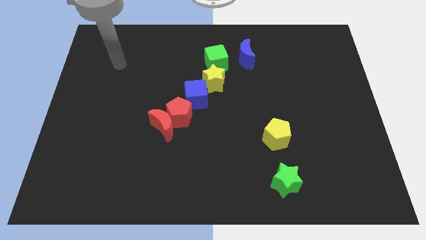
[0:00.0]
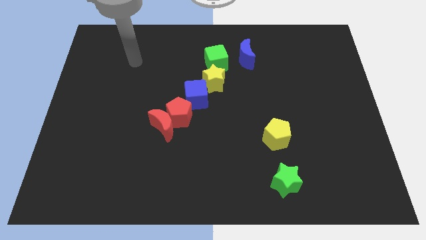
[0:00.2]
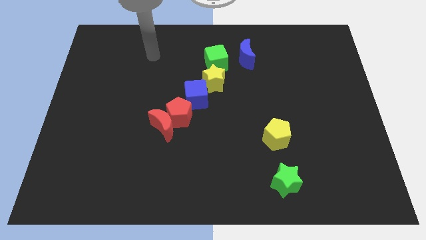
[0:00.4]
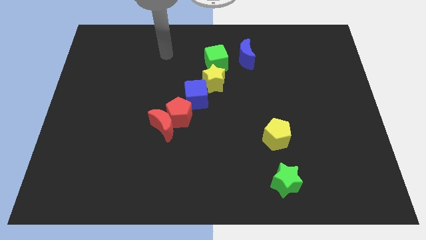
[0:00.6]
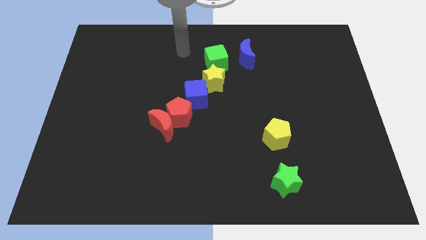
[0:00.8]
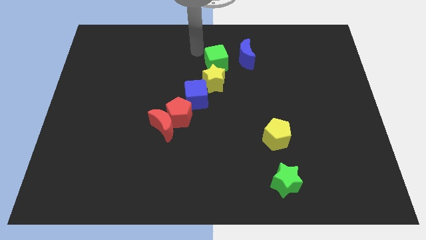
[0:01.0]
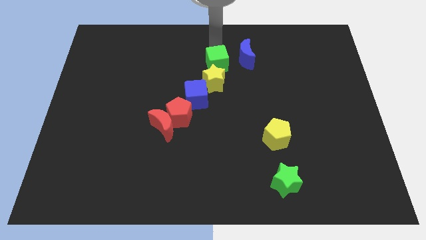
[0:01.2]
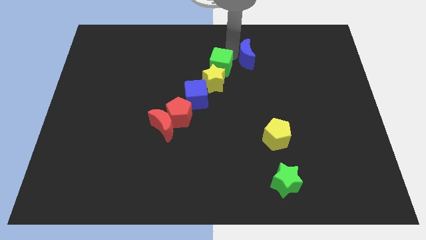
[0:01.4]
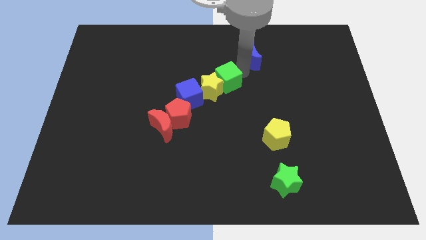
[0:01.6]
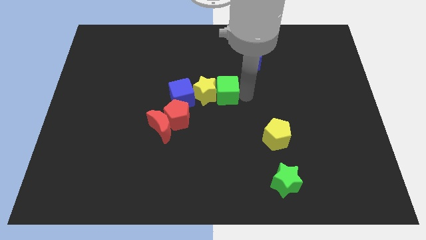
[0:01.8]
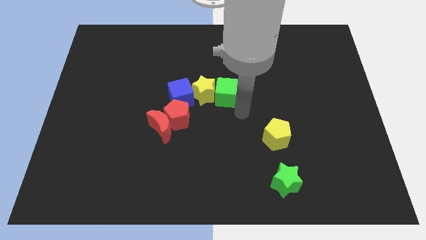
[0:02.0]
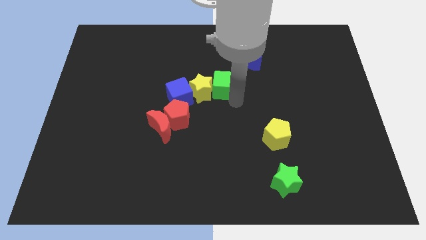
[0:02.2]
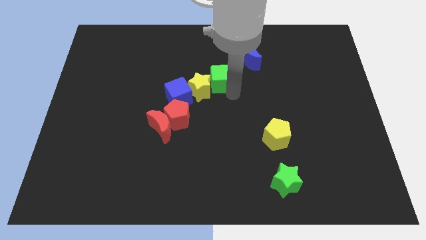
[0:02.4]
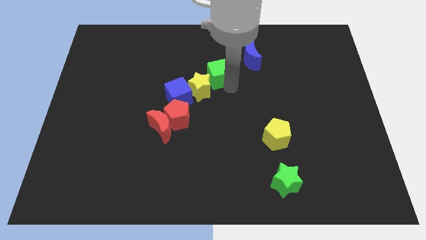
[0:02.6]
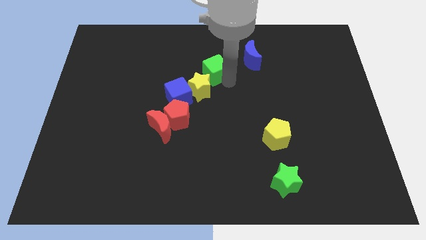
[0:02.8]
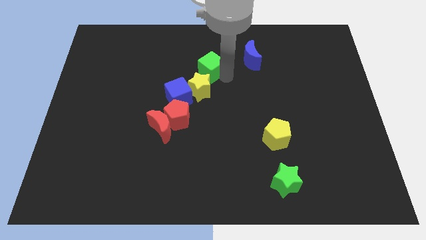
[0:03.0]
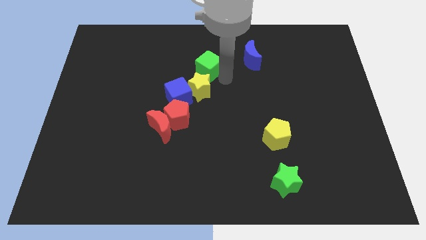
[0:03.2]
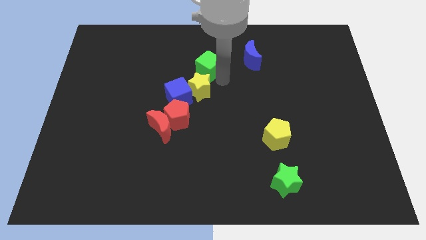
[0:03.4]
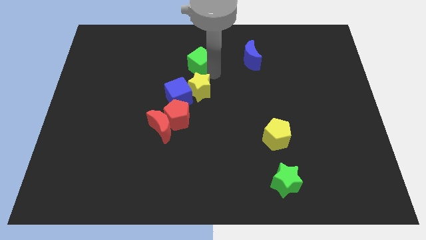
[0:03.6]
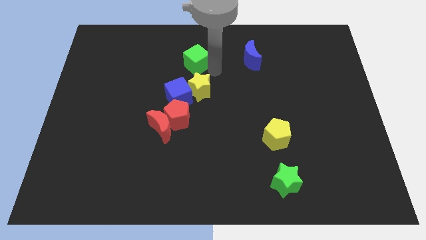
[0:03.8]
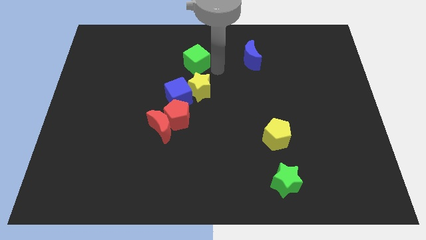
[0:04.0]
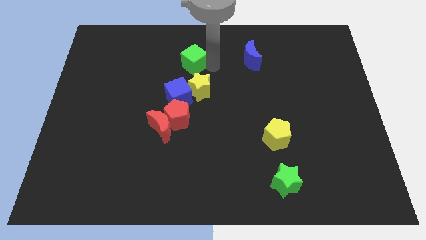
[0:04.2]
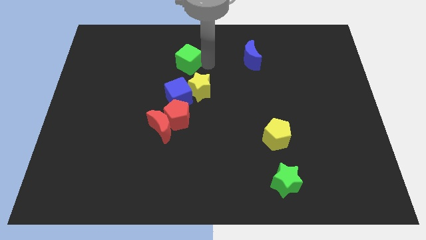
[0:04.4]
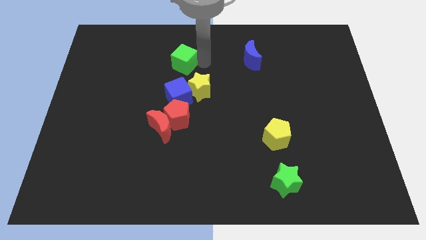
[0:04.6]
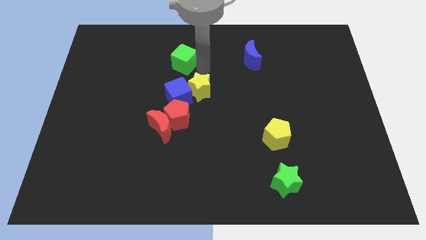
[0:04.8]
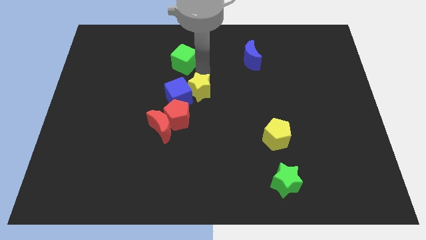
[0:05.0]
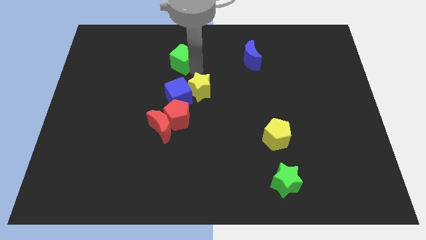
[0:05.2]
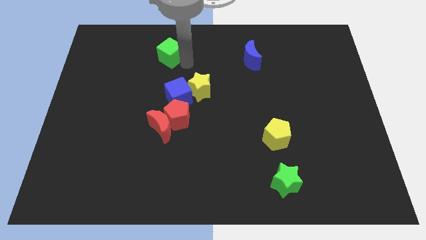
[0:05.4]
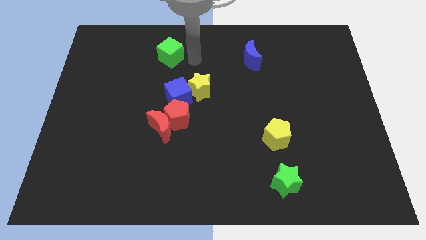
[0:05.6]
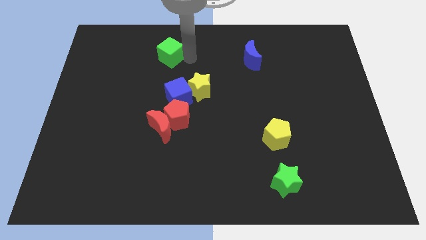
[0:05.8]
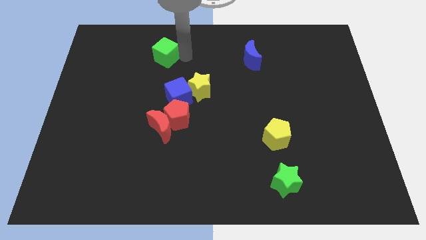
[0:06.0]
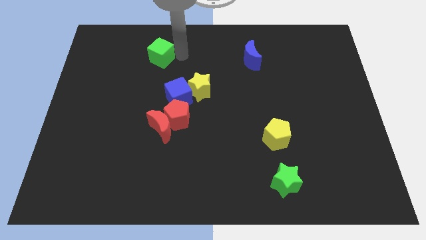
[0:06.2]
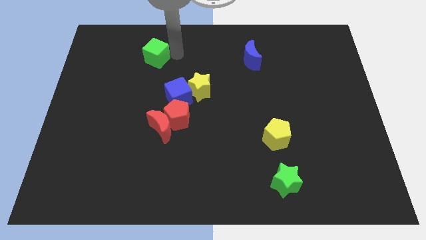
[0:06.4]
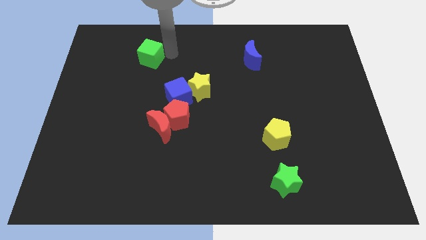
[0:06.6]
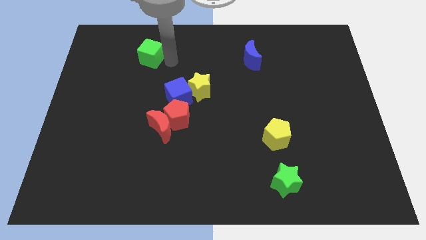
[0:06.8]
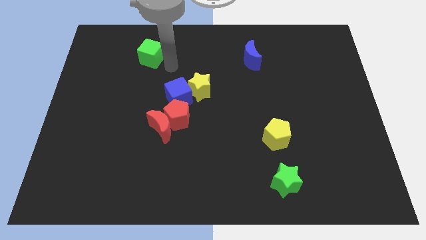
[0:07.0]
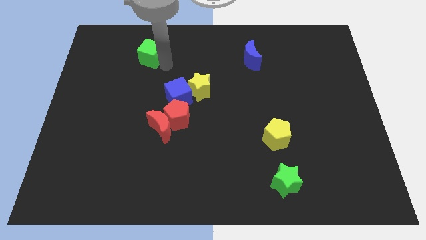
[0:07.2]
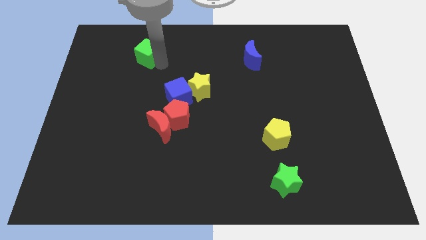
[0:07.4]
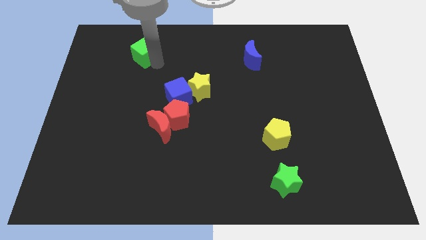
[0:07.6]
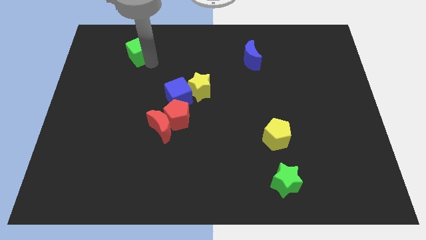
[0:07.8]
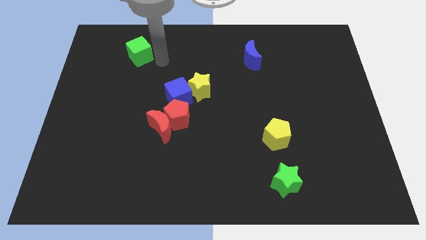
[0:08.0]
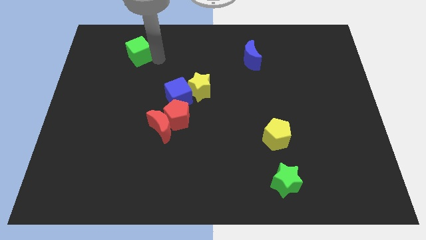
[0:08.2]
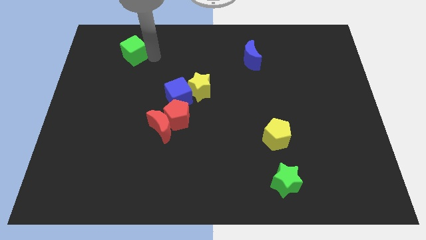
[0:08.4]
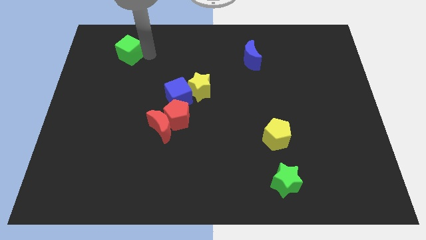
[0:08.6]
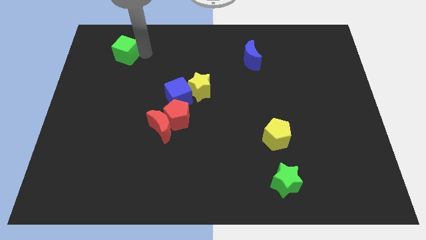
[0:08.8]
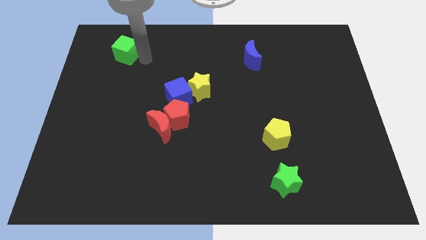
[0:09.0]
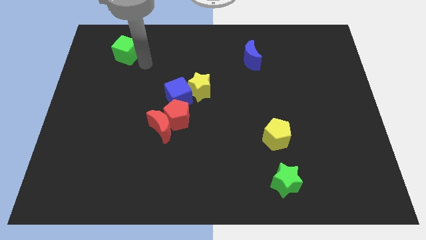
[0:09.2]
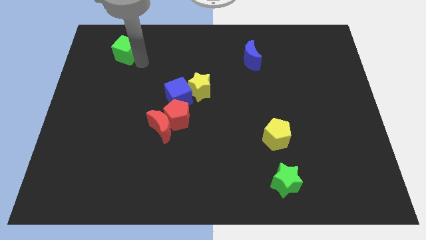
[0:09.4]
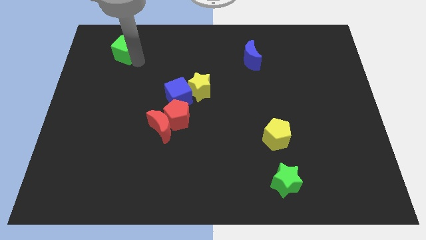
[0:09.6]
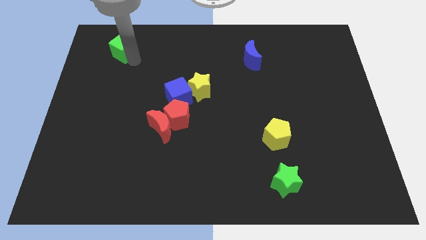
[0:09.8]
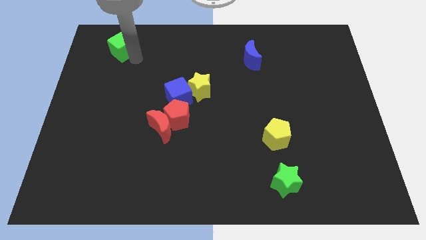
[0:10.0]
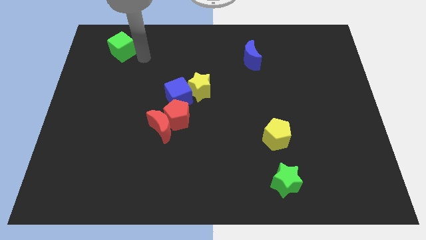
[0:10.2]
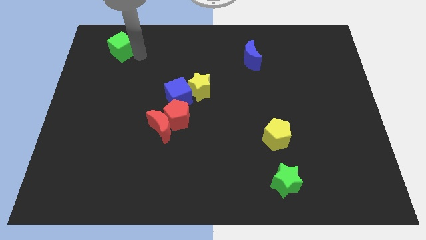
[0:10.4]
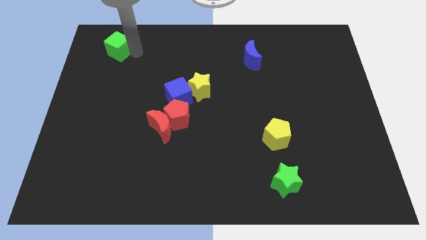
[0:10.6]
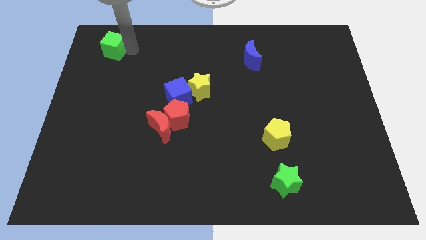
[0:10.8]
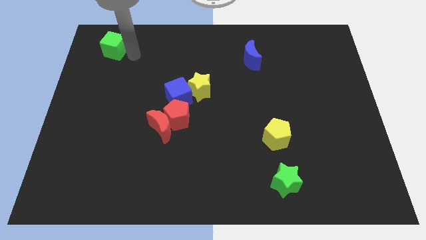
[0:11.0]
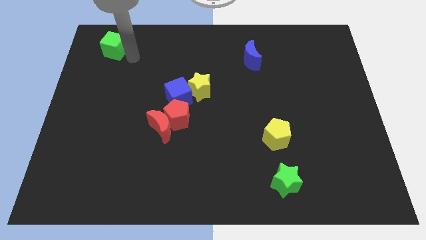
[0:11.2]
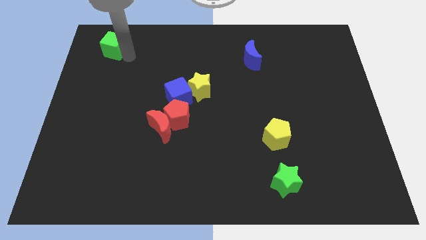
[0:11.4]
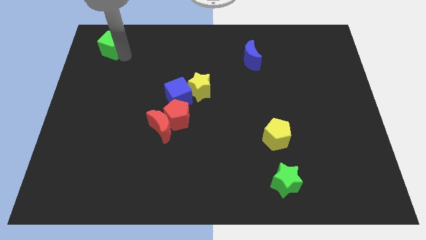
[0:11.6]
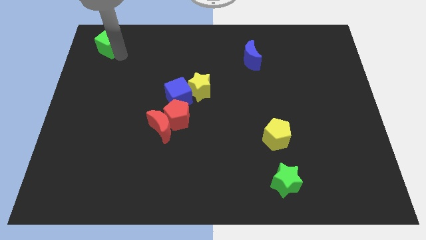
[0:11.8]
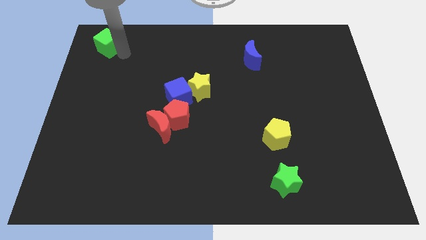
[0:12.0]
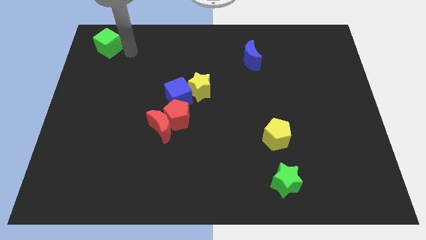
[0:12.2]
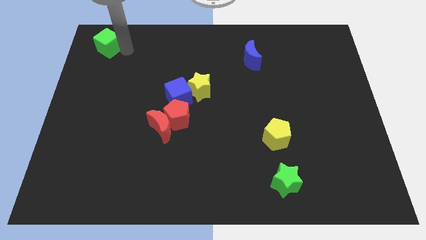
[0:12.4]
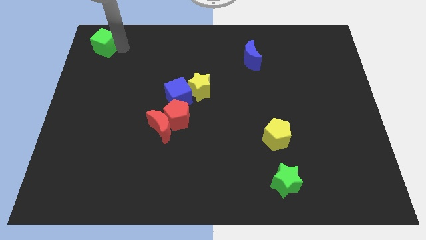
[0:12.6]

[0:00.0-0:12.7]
push the green cube to the top left of the board
